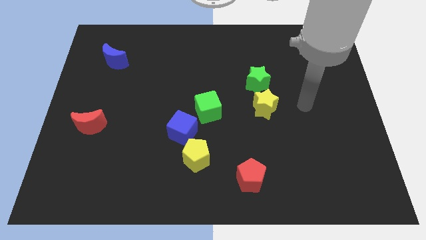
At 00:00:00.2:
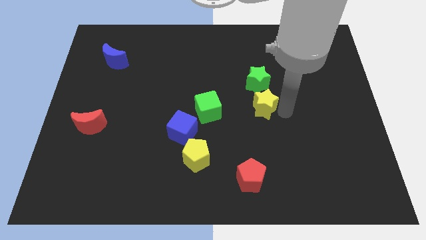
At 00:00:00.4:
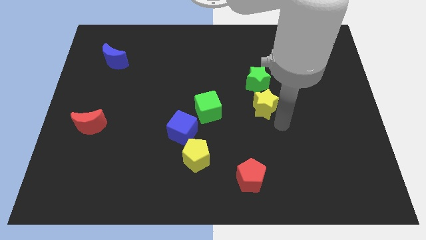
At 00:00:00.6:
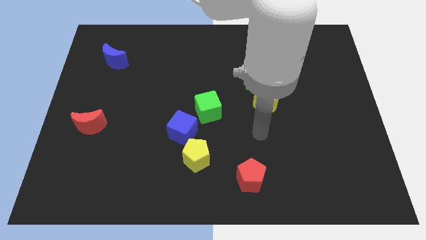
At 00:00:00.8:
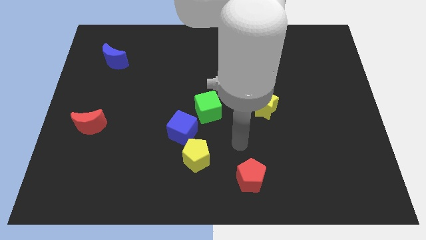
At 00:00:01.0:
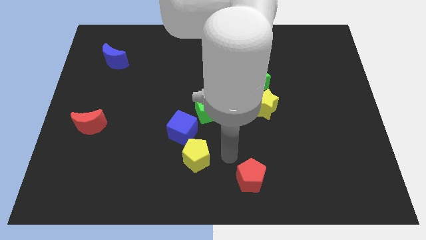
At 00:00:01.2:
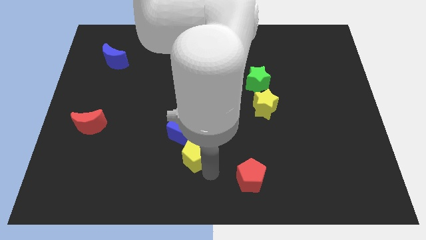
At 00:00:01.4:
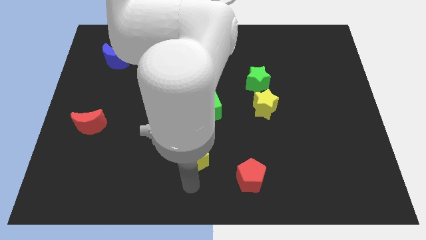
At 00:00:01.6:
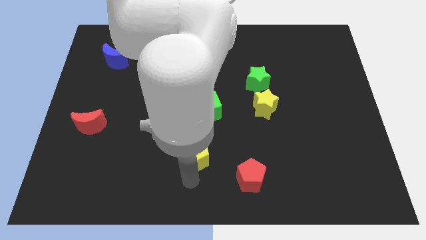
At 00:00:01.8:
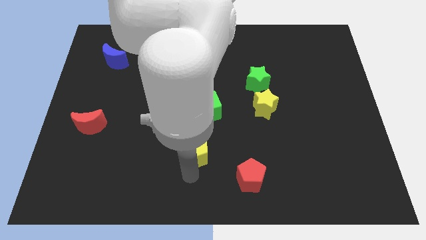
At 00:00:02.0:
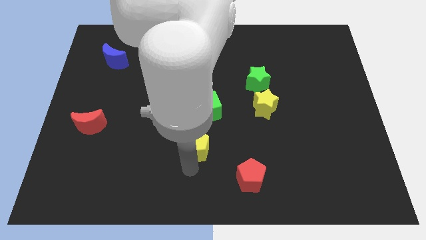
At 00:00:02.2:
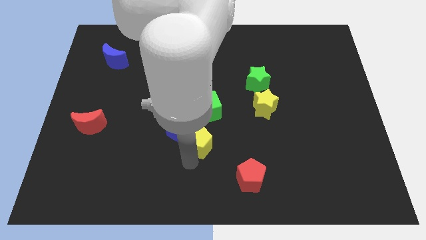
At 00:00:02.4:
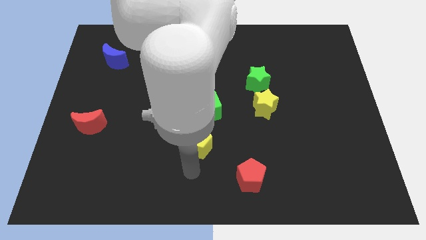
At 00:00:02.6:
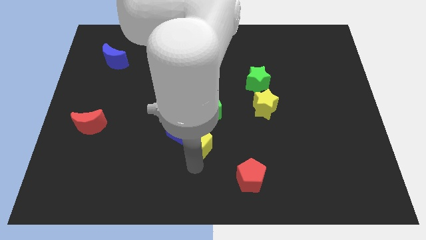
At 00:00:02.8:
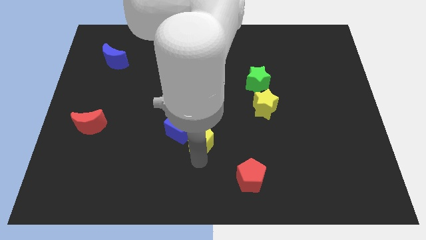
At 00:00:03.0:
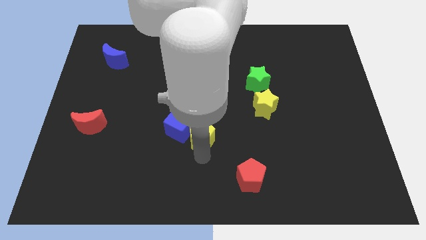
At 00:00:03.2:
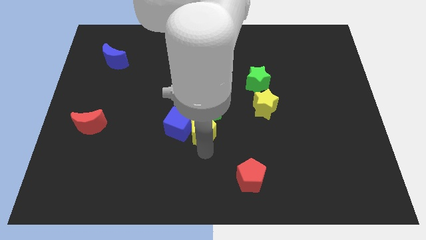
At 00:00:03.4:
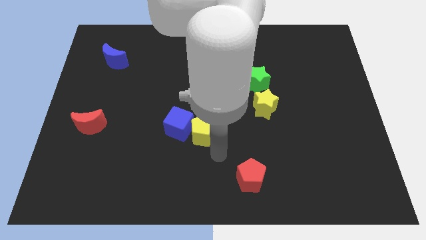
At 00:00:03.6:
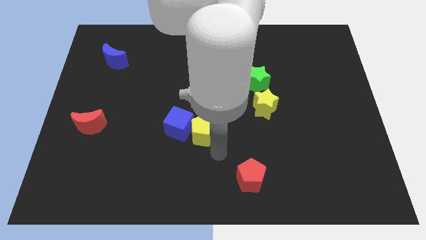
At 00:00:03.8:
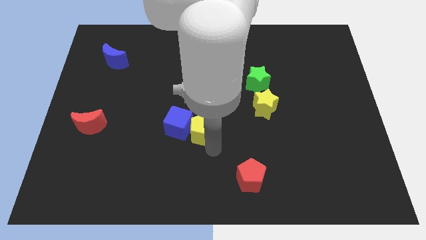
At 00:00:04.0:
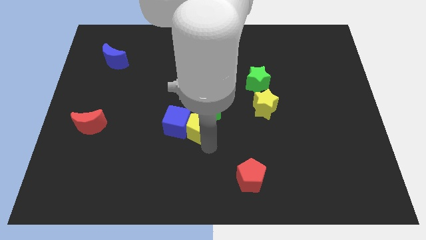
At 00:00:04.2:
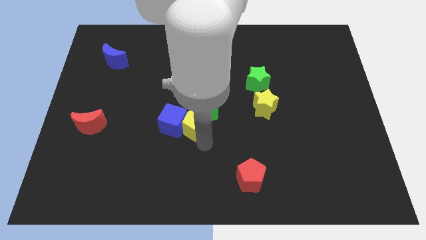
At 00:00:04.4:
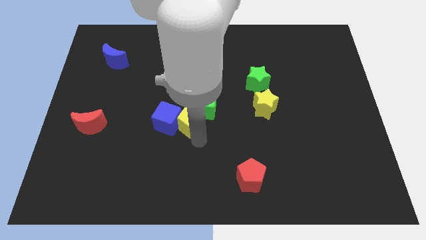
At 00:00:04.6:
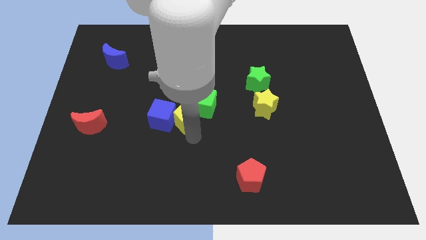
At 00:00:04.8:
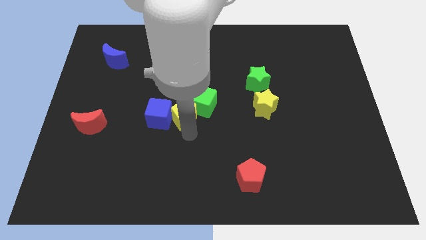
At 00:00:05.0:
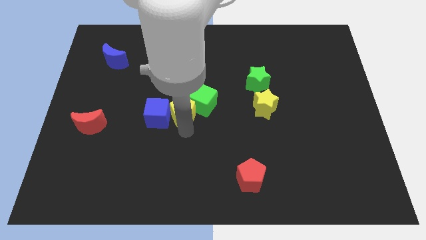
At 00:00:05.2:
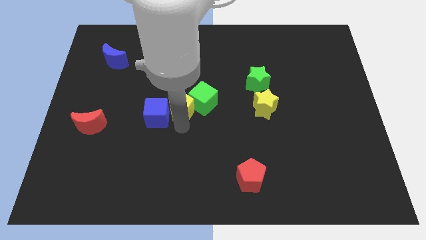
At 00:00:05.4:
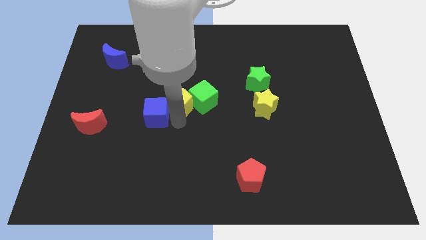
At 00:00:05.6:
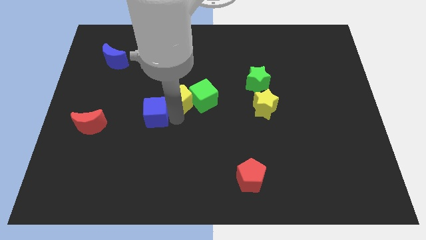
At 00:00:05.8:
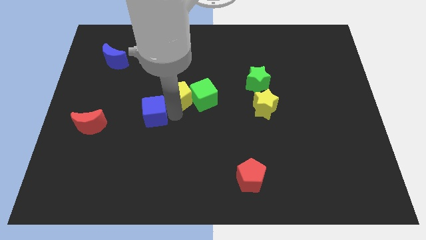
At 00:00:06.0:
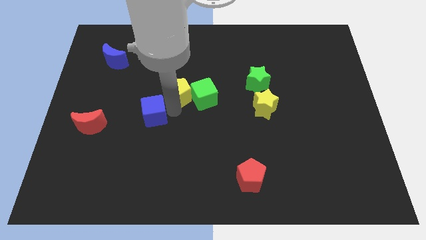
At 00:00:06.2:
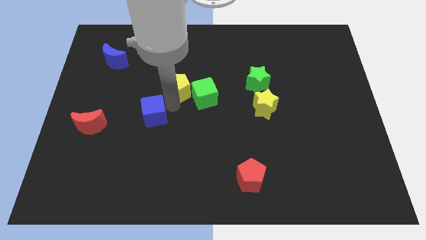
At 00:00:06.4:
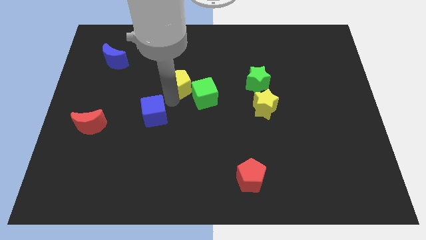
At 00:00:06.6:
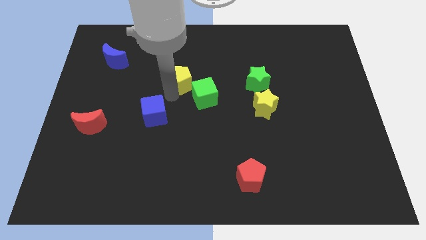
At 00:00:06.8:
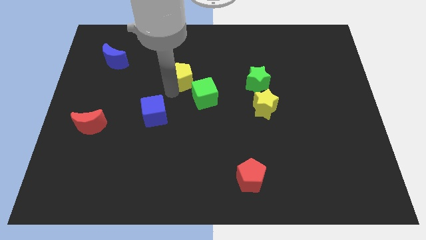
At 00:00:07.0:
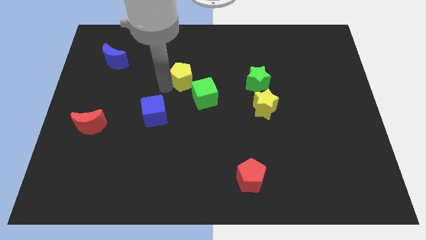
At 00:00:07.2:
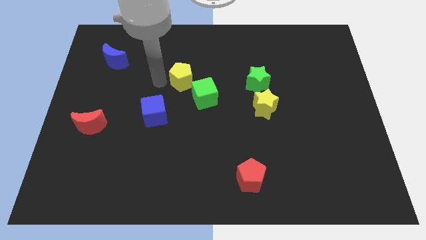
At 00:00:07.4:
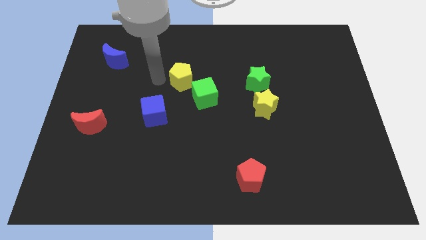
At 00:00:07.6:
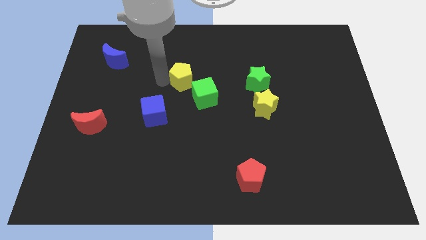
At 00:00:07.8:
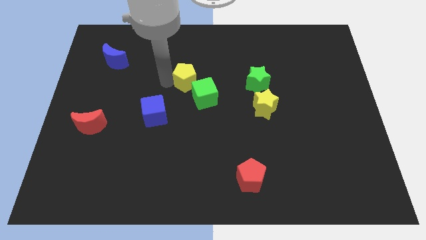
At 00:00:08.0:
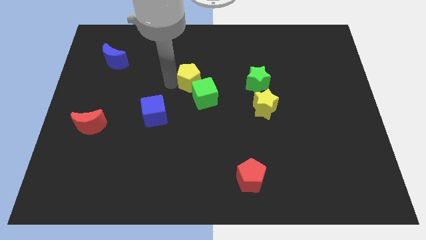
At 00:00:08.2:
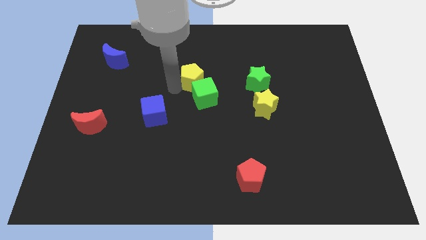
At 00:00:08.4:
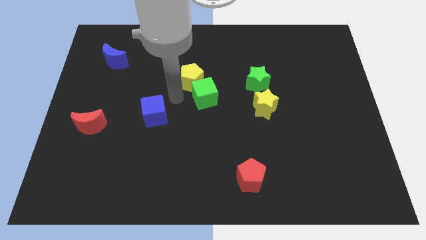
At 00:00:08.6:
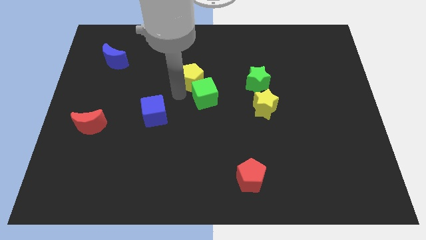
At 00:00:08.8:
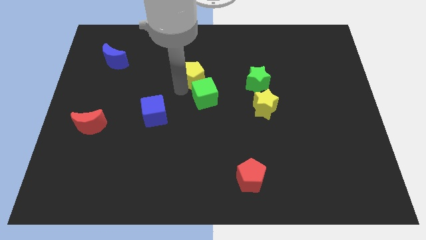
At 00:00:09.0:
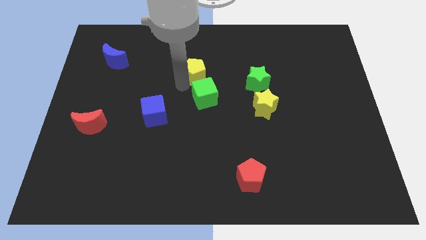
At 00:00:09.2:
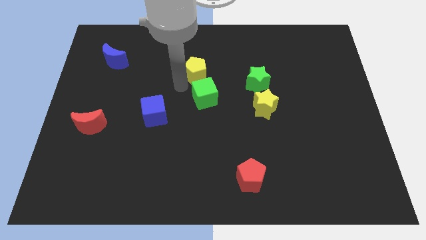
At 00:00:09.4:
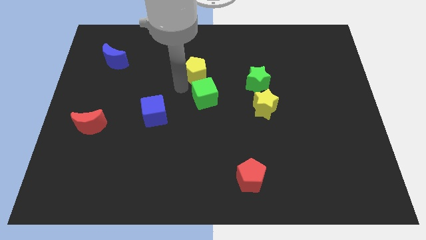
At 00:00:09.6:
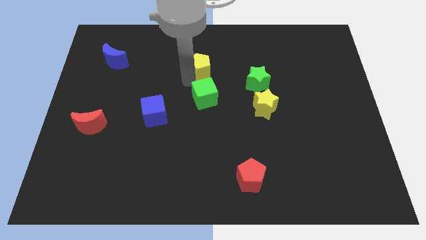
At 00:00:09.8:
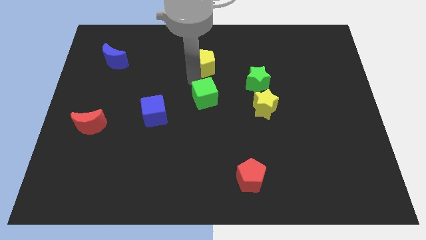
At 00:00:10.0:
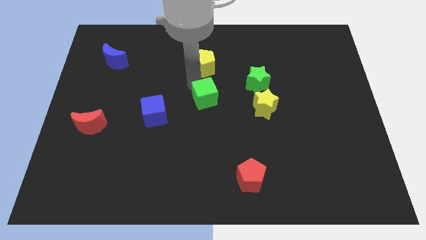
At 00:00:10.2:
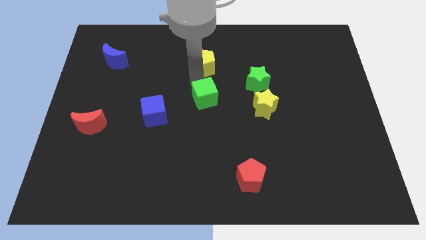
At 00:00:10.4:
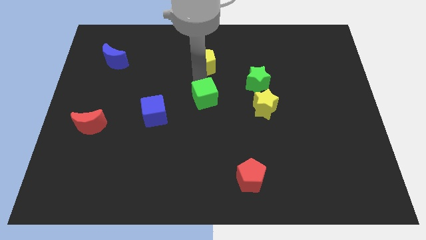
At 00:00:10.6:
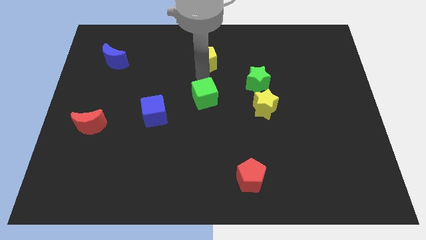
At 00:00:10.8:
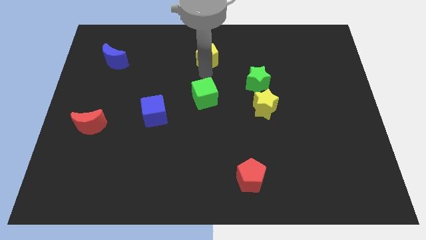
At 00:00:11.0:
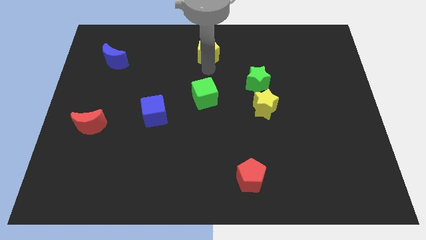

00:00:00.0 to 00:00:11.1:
move the yellow pentagon to the towards your base
